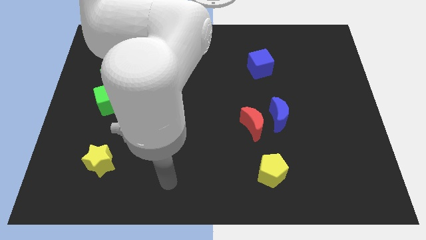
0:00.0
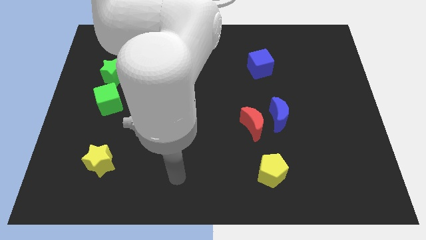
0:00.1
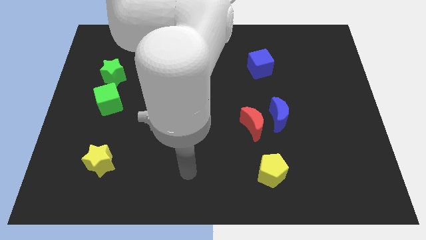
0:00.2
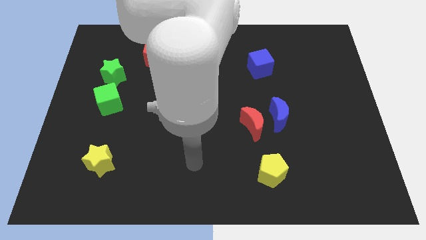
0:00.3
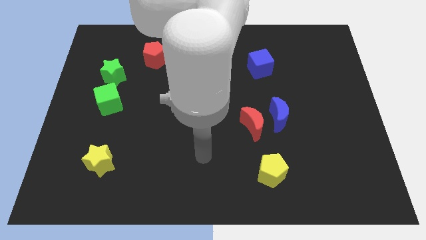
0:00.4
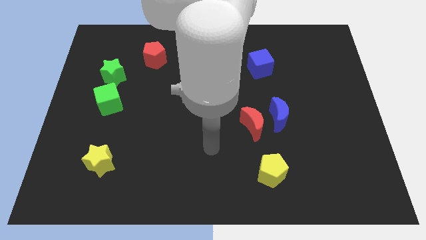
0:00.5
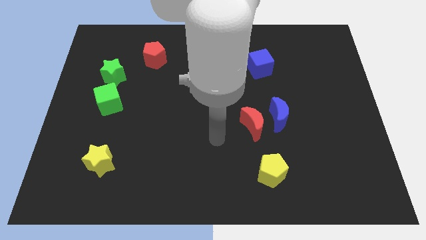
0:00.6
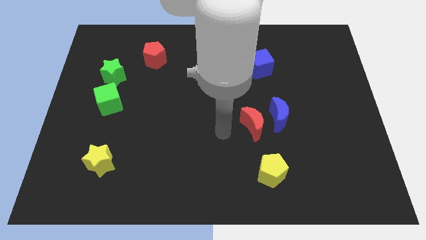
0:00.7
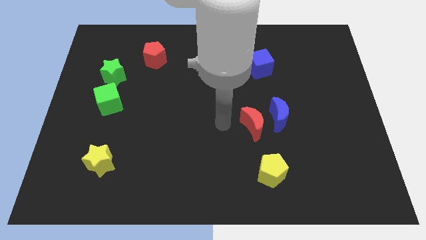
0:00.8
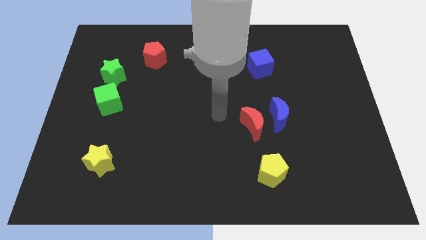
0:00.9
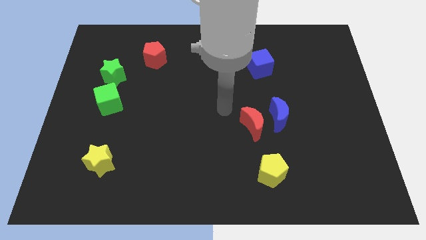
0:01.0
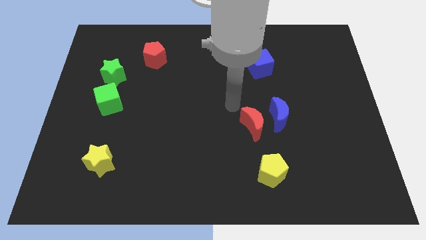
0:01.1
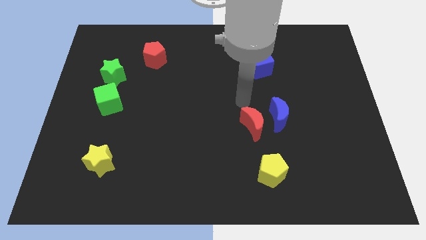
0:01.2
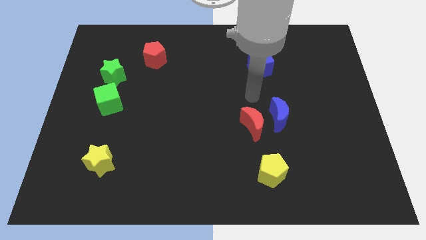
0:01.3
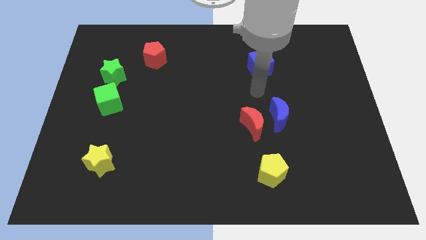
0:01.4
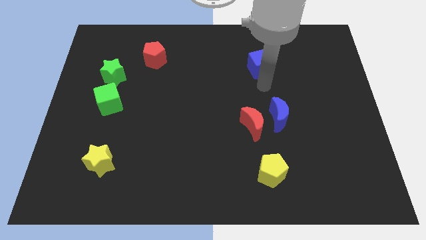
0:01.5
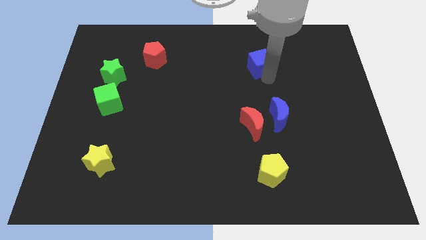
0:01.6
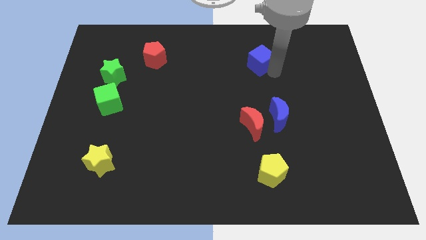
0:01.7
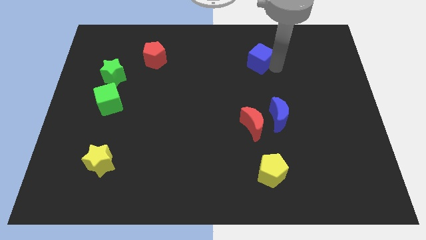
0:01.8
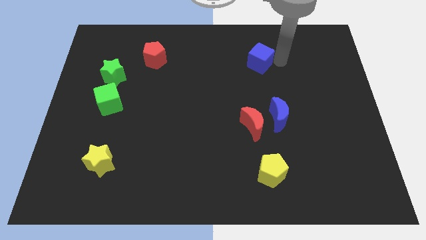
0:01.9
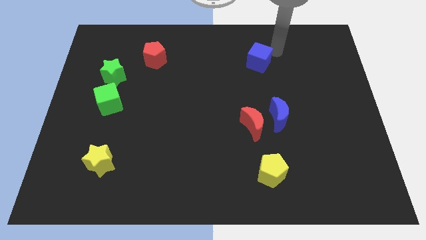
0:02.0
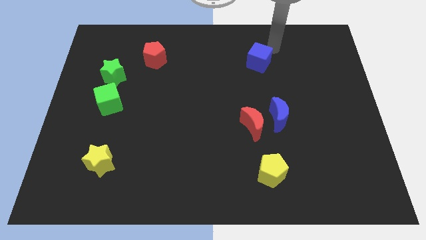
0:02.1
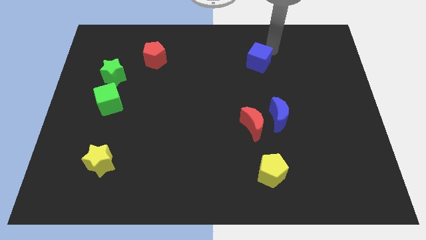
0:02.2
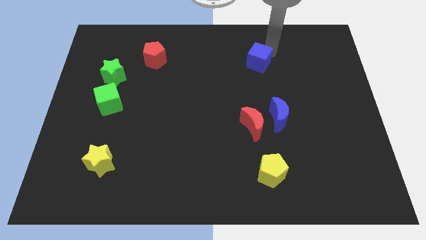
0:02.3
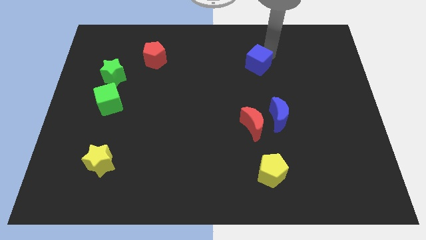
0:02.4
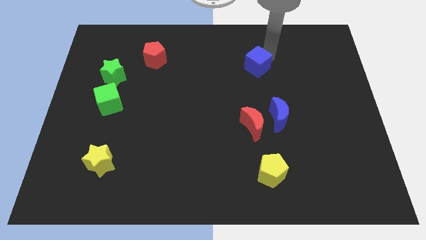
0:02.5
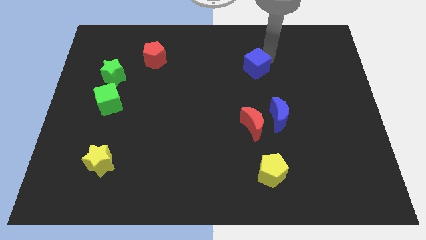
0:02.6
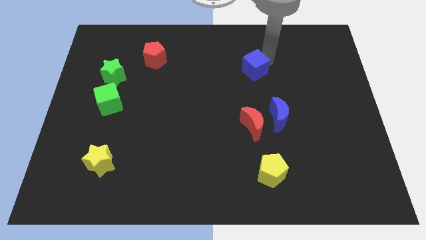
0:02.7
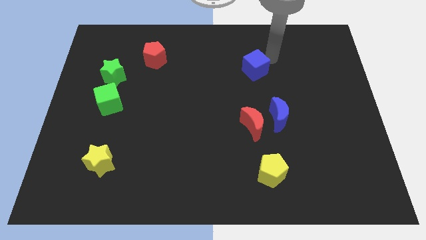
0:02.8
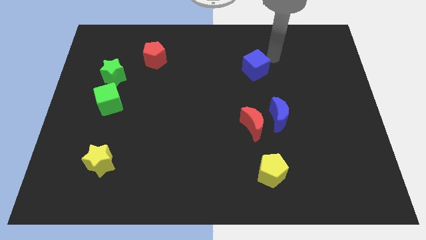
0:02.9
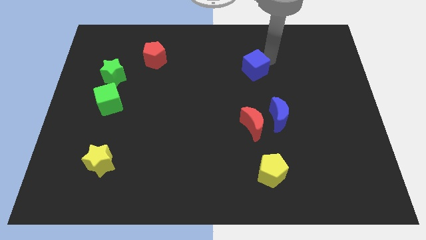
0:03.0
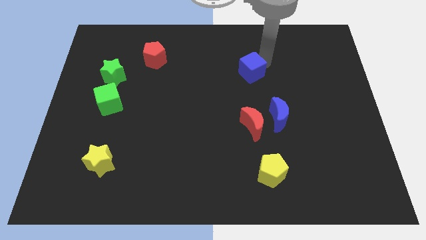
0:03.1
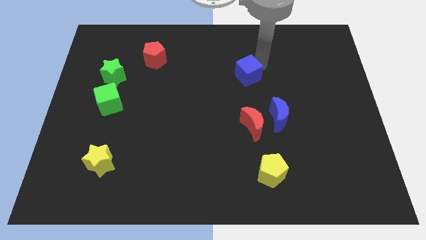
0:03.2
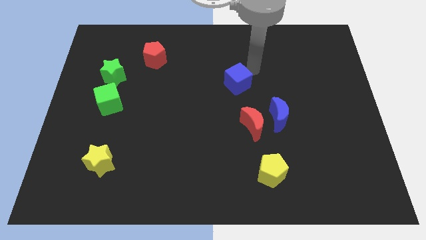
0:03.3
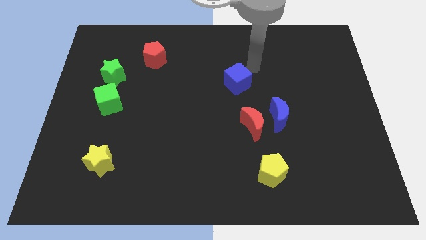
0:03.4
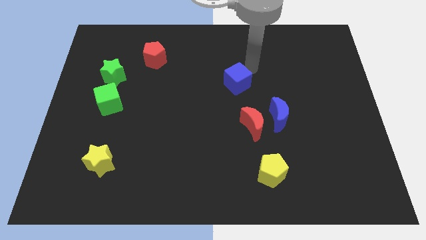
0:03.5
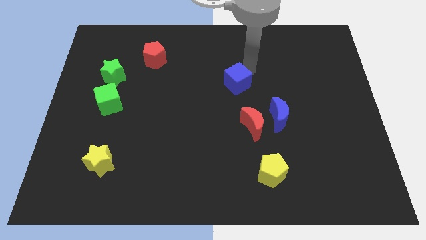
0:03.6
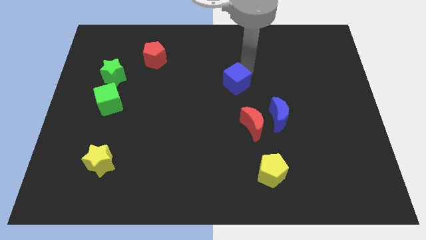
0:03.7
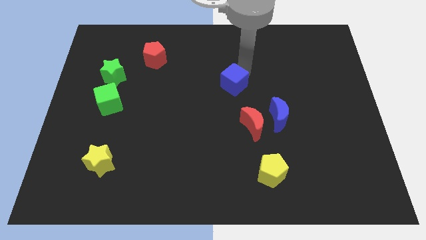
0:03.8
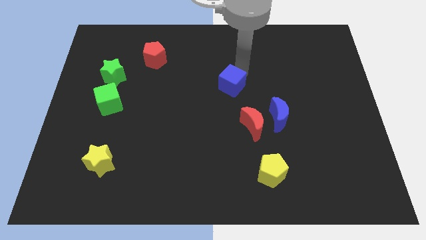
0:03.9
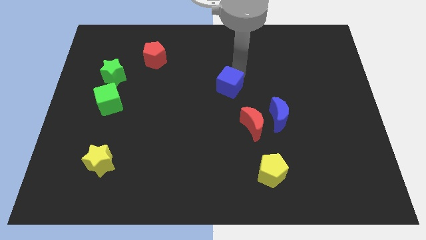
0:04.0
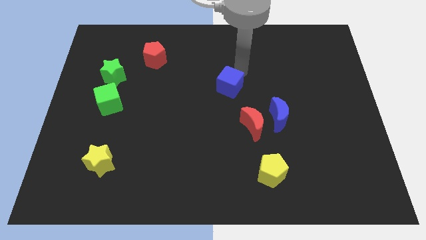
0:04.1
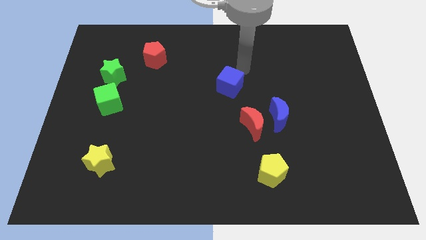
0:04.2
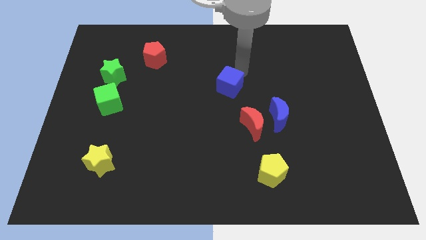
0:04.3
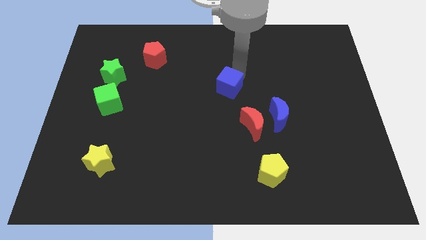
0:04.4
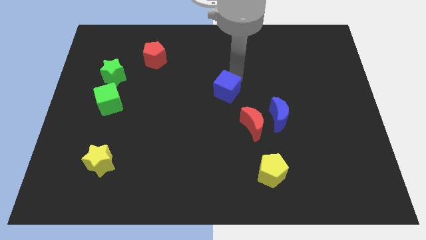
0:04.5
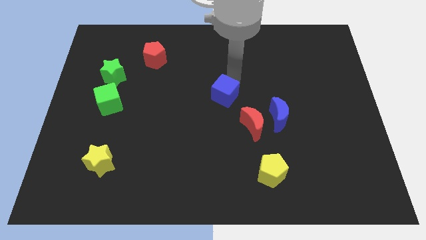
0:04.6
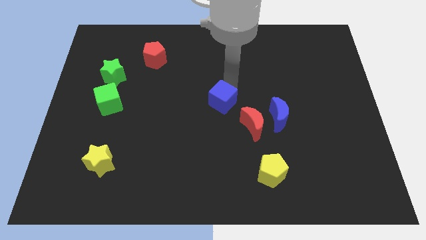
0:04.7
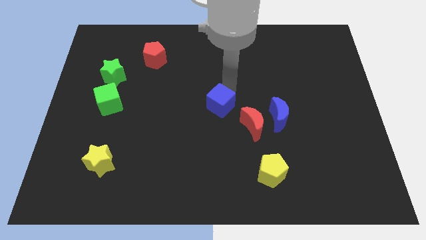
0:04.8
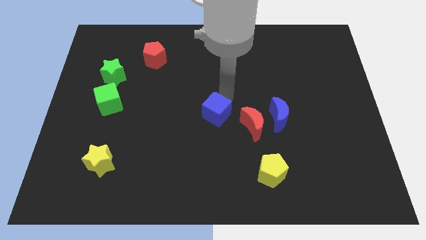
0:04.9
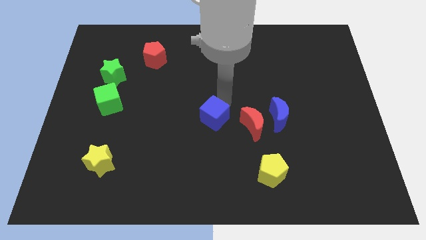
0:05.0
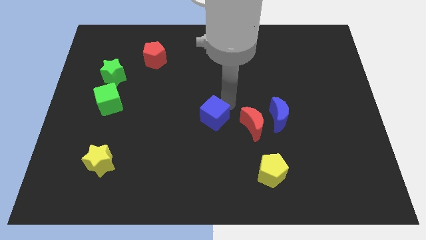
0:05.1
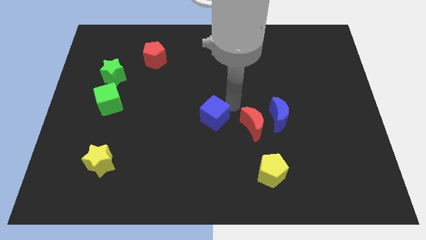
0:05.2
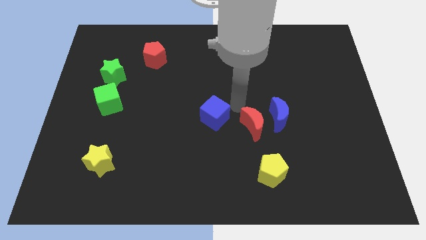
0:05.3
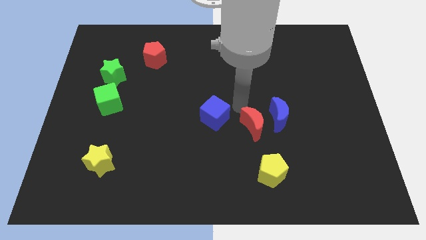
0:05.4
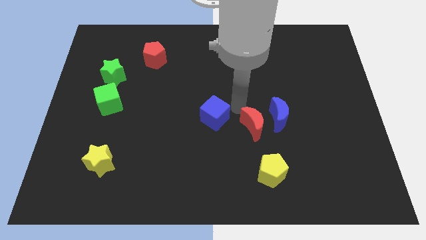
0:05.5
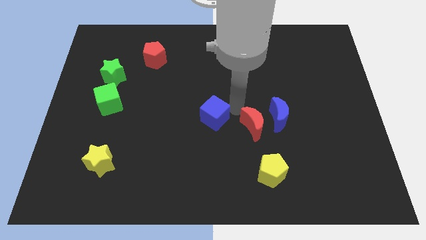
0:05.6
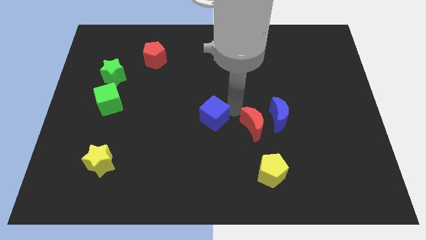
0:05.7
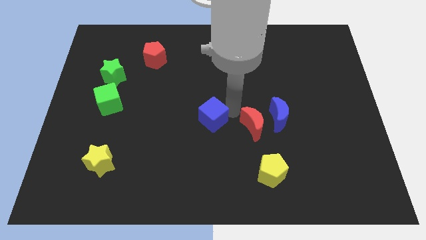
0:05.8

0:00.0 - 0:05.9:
move the blue cube downwards and to the left diagonally

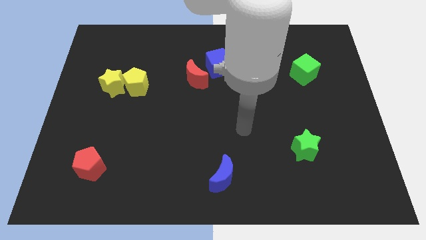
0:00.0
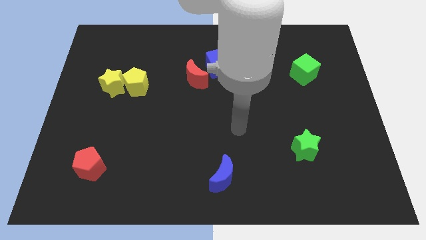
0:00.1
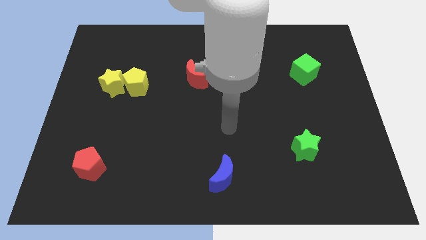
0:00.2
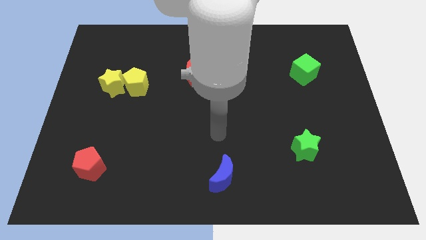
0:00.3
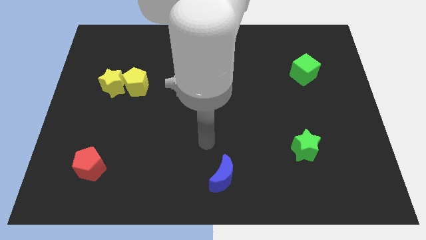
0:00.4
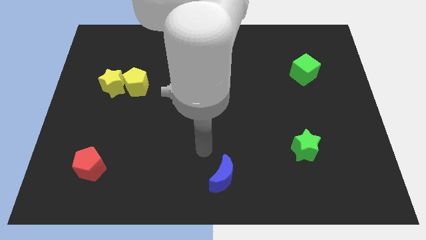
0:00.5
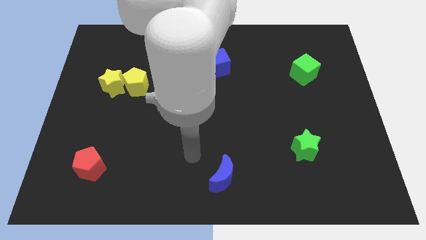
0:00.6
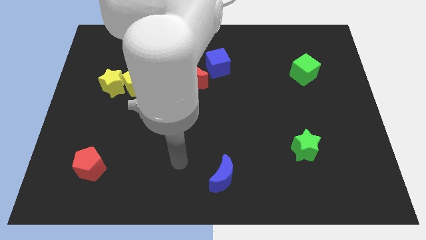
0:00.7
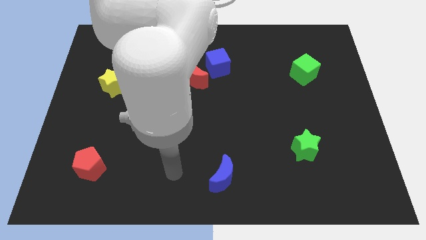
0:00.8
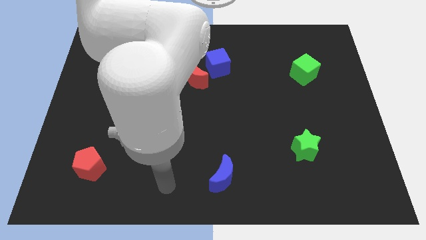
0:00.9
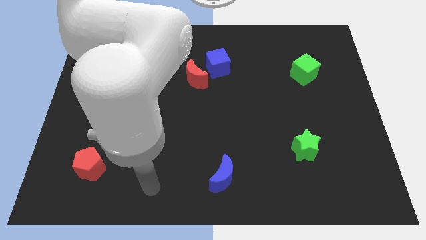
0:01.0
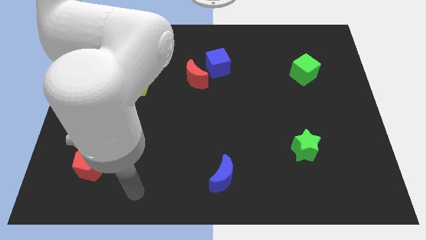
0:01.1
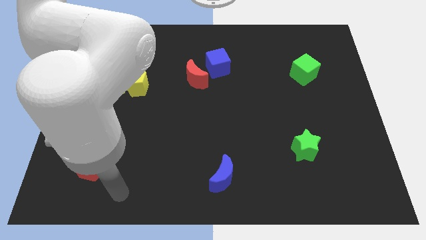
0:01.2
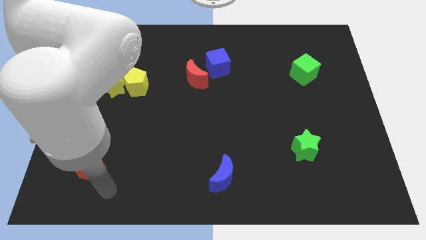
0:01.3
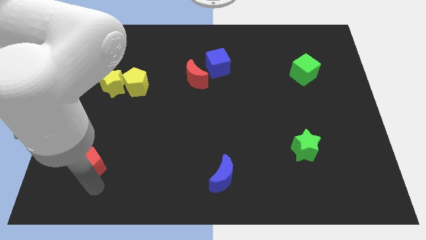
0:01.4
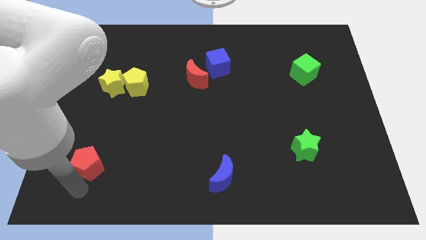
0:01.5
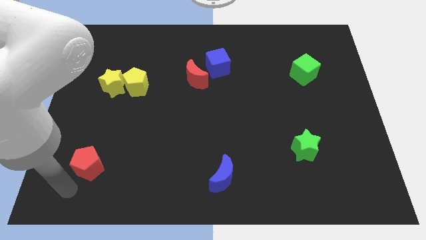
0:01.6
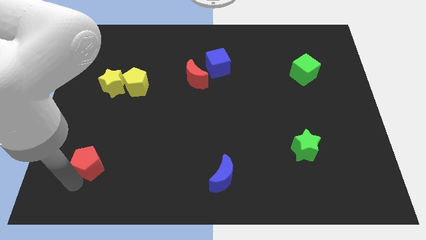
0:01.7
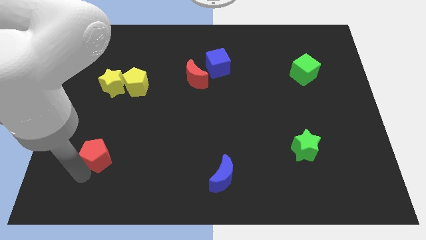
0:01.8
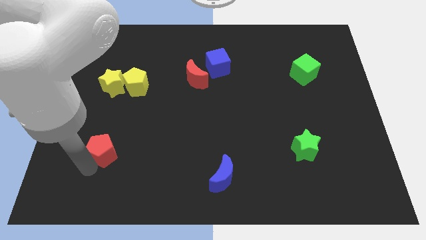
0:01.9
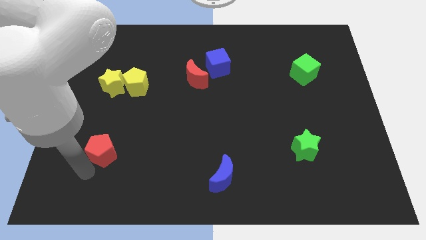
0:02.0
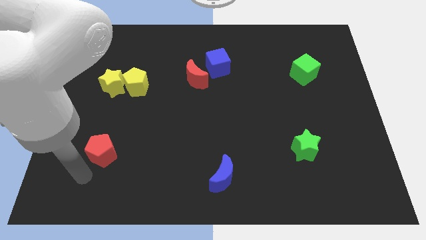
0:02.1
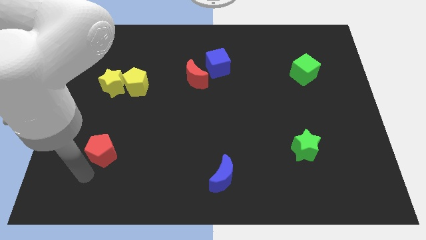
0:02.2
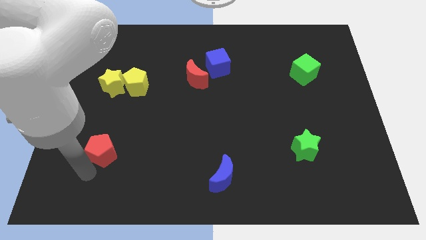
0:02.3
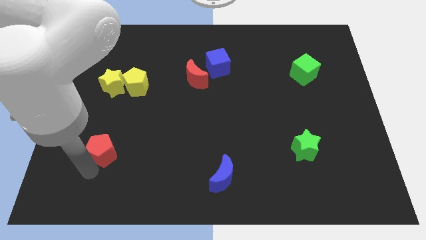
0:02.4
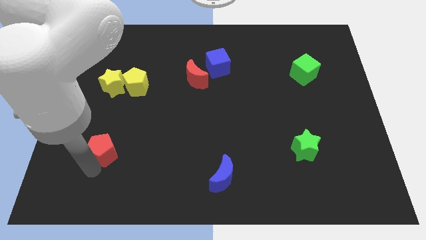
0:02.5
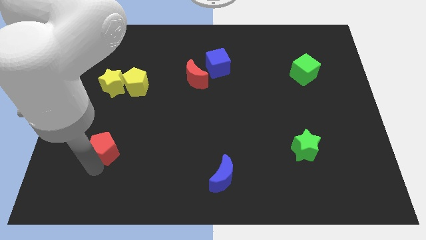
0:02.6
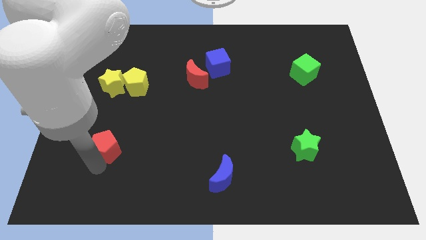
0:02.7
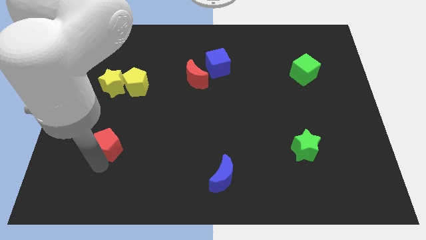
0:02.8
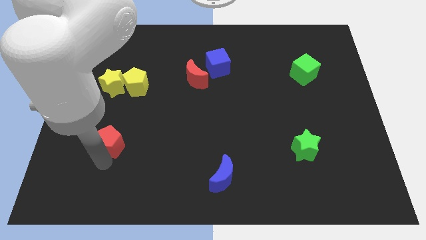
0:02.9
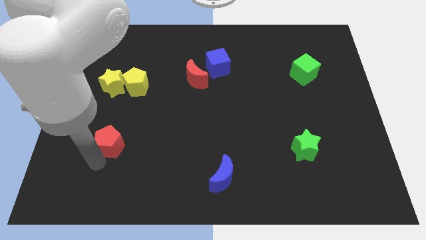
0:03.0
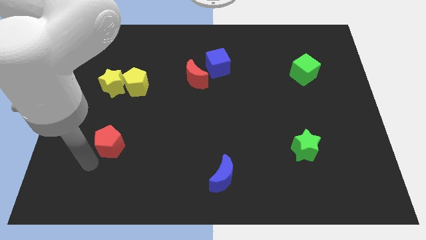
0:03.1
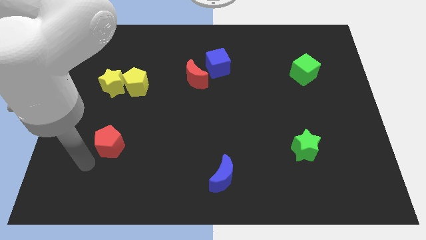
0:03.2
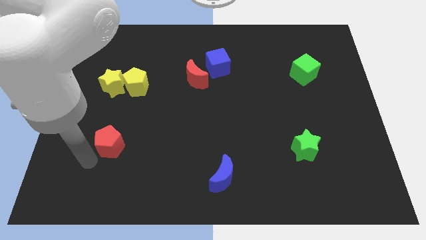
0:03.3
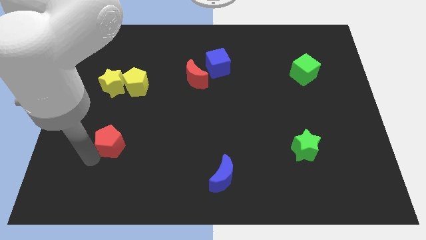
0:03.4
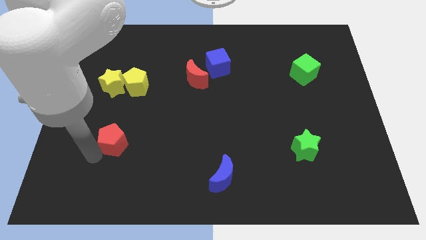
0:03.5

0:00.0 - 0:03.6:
move the red pentagon a little up and right
